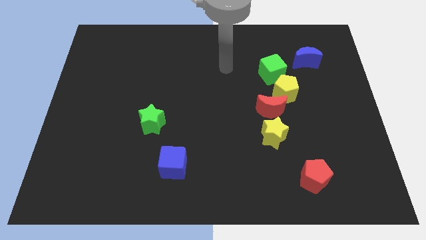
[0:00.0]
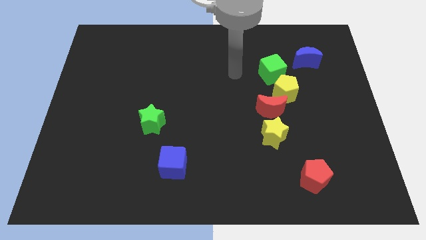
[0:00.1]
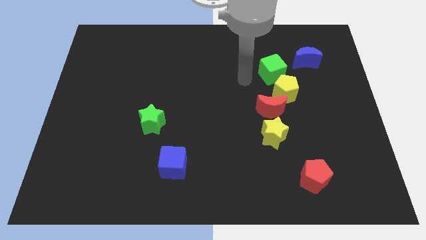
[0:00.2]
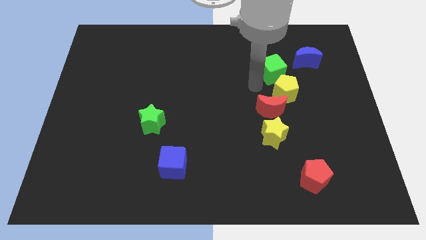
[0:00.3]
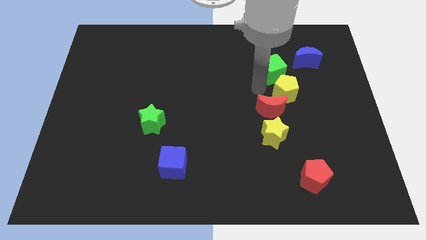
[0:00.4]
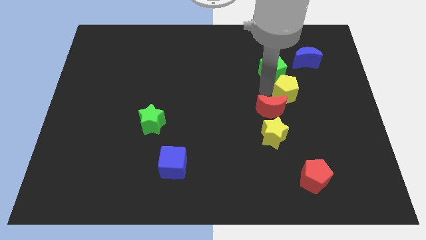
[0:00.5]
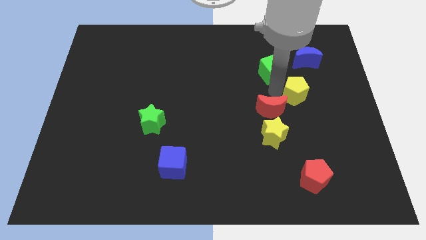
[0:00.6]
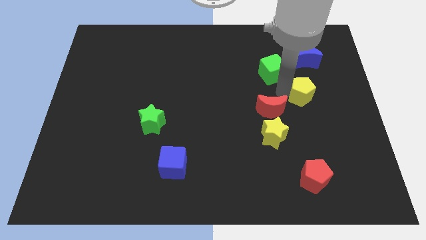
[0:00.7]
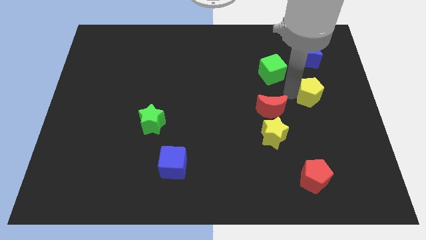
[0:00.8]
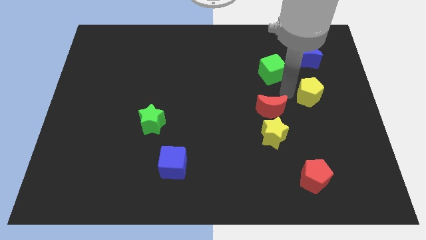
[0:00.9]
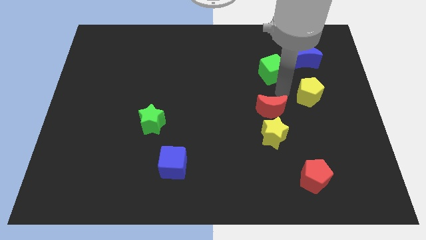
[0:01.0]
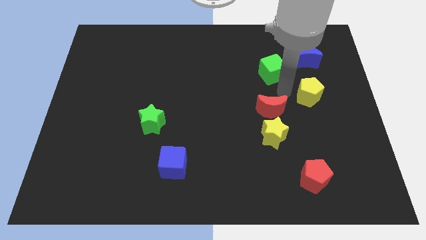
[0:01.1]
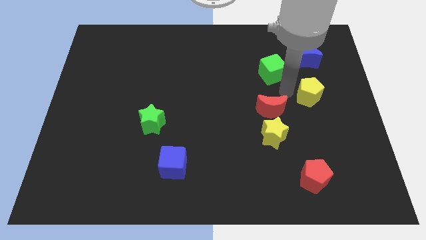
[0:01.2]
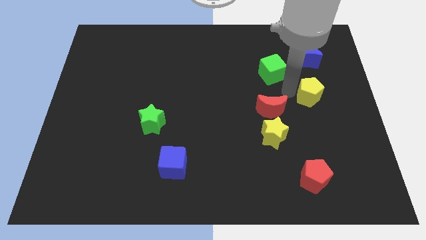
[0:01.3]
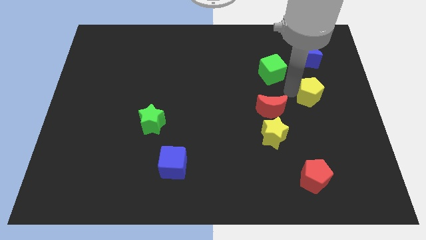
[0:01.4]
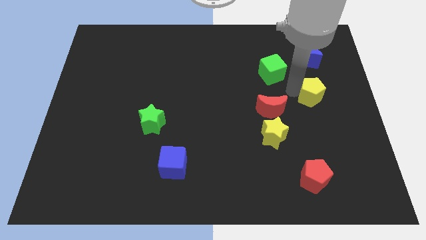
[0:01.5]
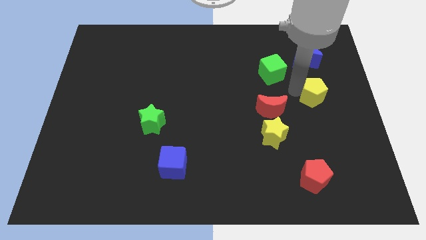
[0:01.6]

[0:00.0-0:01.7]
move the yellow pentagon away from the red moon and green cube

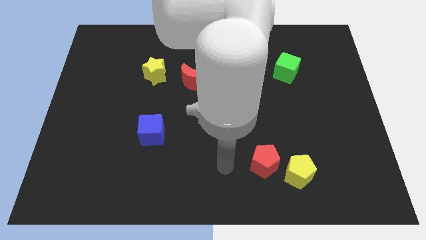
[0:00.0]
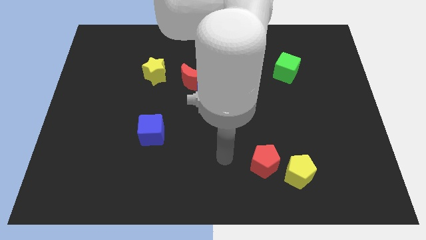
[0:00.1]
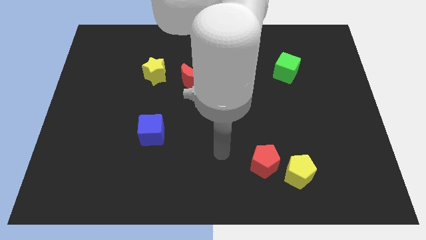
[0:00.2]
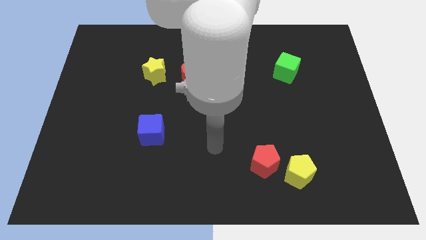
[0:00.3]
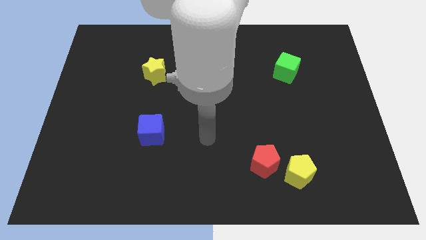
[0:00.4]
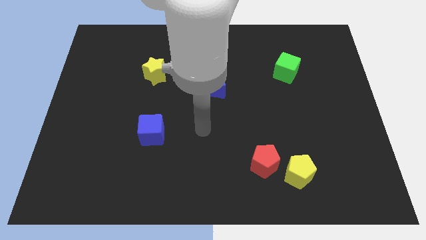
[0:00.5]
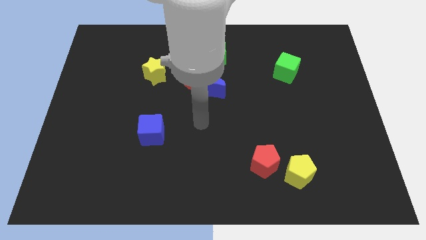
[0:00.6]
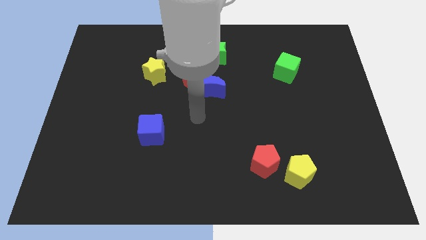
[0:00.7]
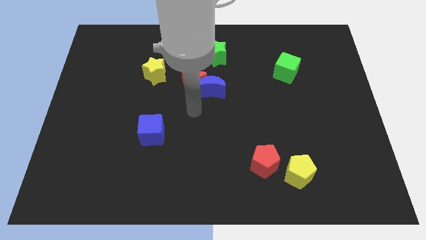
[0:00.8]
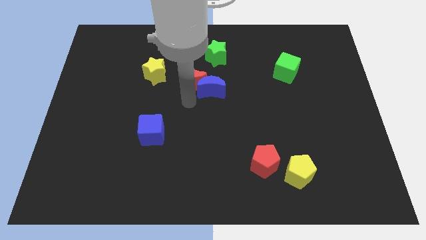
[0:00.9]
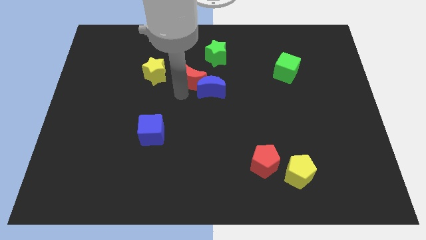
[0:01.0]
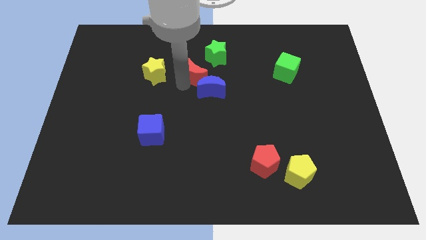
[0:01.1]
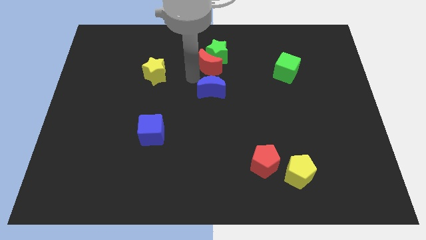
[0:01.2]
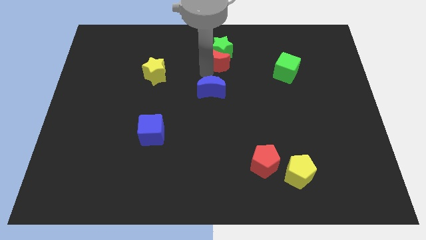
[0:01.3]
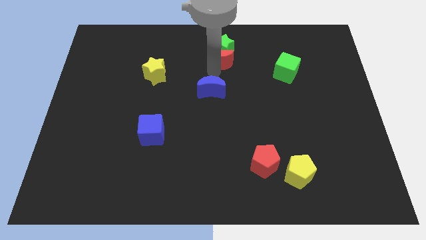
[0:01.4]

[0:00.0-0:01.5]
pull the blue moon apart from the red moon

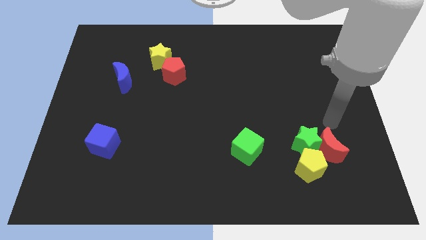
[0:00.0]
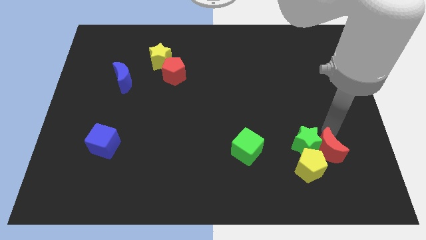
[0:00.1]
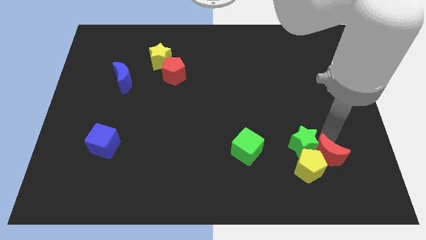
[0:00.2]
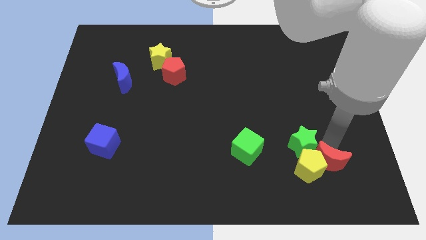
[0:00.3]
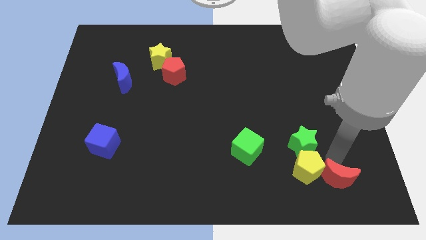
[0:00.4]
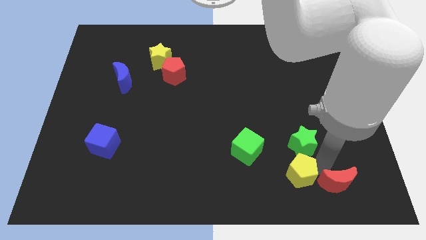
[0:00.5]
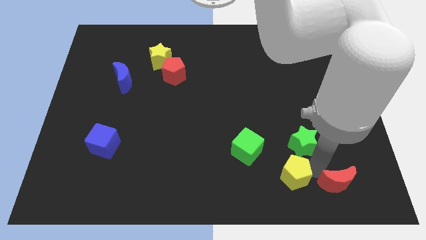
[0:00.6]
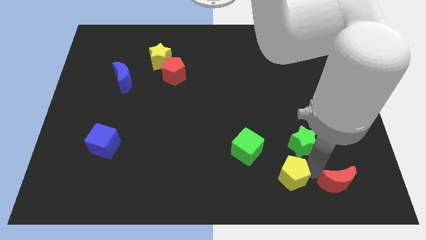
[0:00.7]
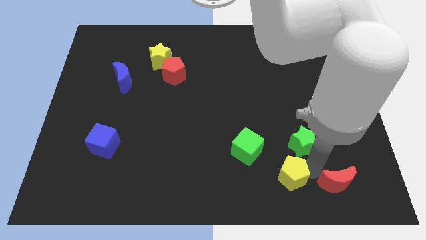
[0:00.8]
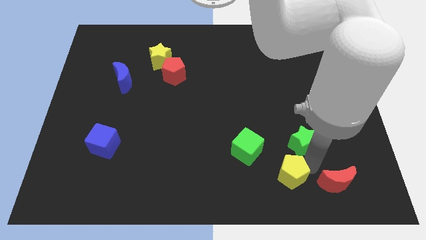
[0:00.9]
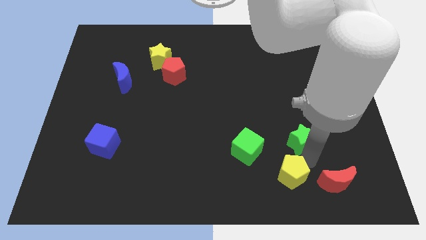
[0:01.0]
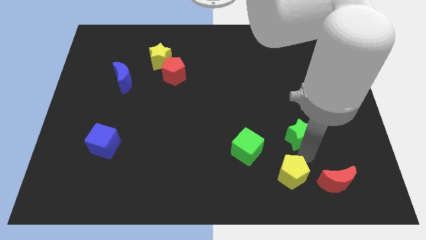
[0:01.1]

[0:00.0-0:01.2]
move the green star away from the red moon and yellow pentagon

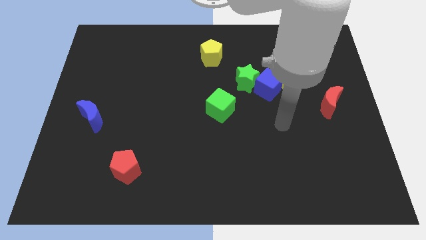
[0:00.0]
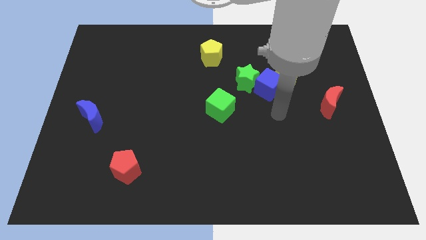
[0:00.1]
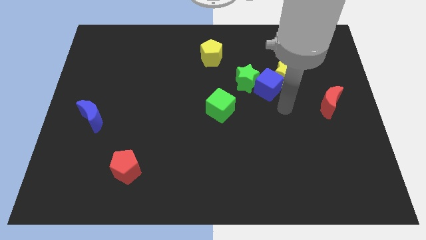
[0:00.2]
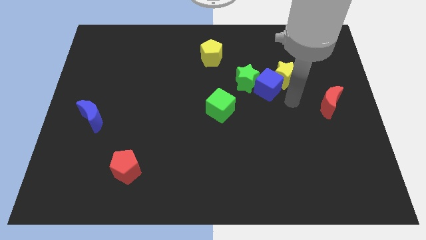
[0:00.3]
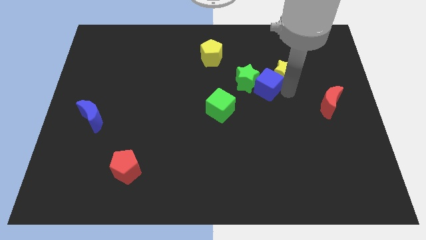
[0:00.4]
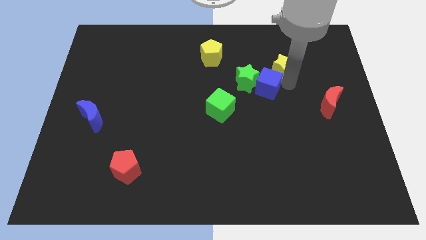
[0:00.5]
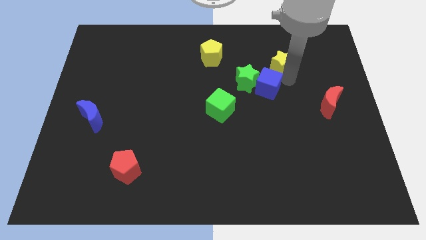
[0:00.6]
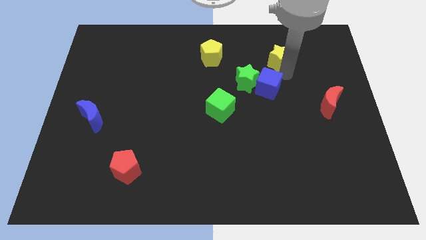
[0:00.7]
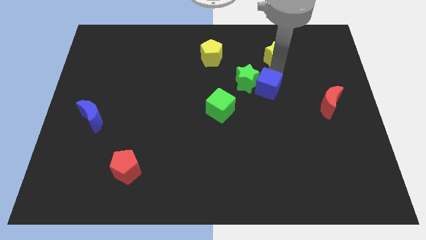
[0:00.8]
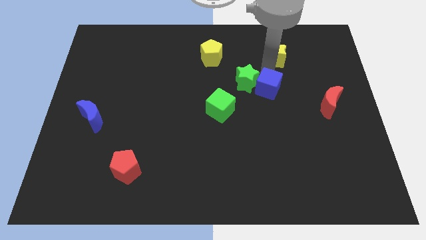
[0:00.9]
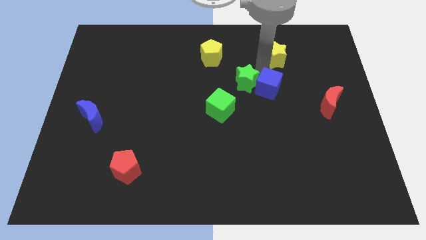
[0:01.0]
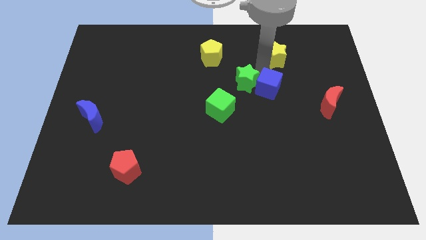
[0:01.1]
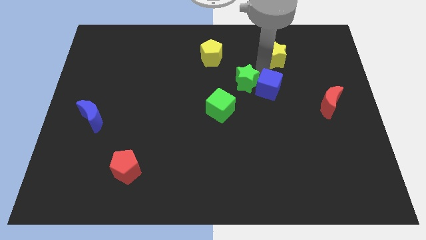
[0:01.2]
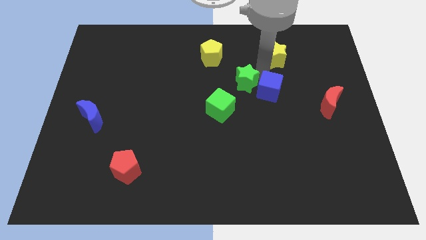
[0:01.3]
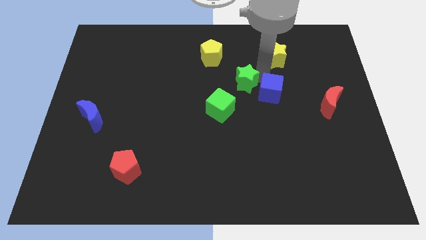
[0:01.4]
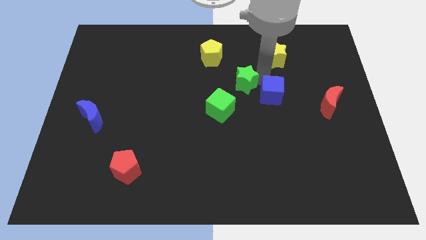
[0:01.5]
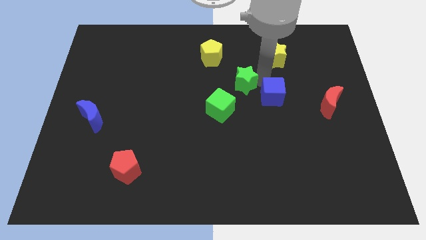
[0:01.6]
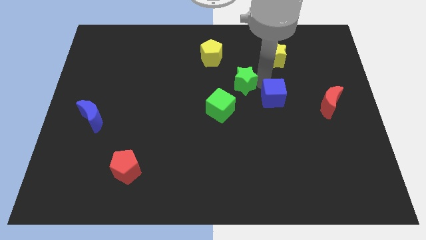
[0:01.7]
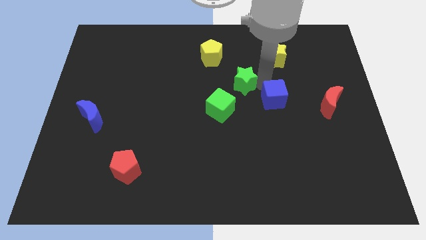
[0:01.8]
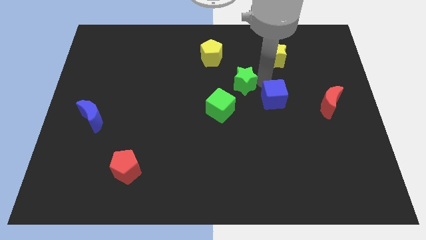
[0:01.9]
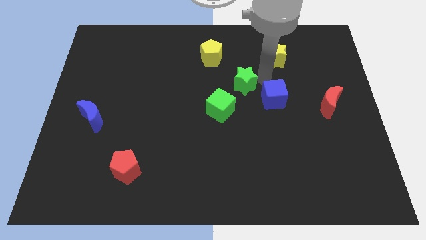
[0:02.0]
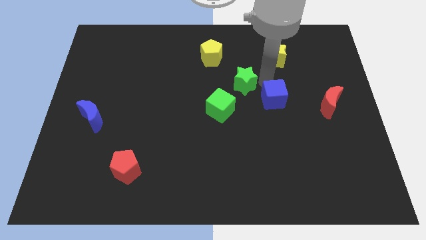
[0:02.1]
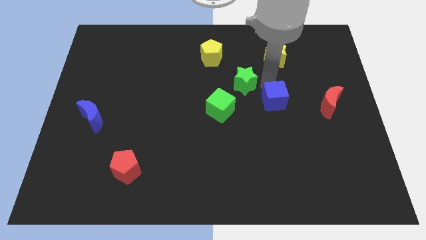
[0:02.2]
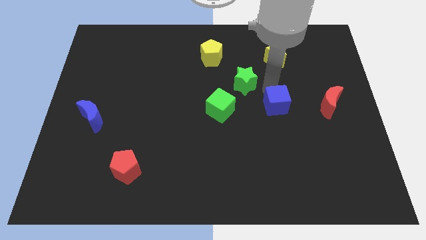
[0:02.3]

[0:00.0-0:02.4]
pull the blue cube apart from the yellow star and green star

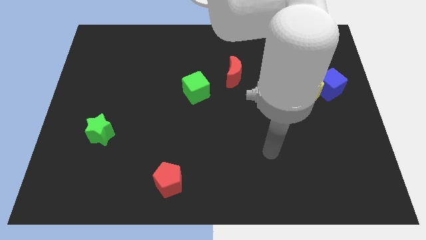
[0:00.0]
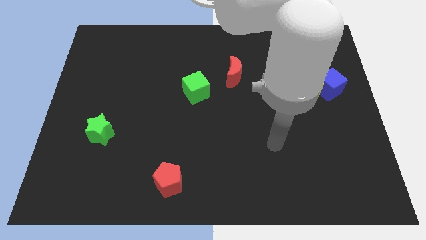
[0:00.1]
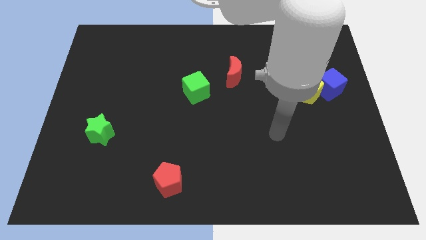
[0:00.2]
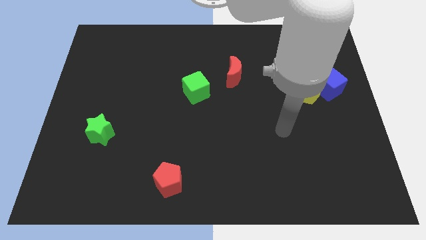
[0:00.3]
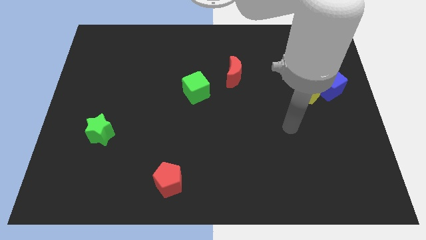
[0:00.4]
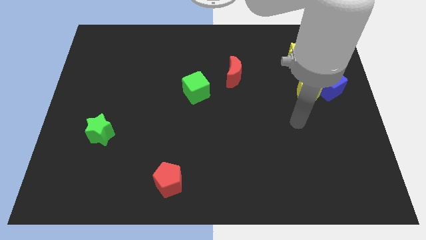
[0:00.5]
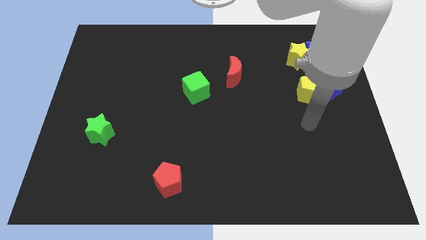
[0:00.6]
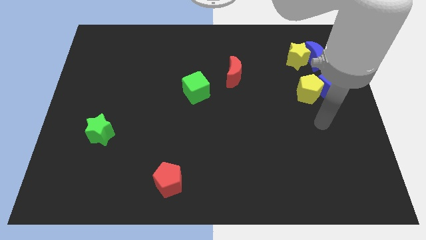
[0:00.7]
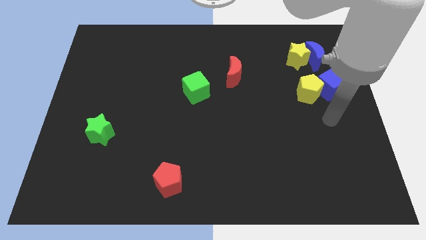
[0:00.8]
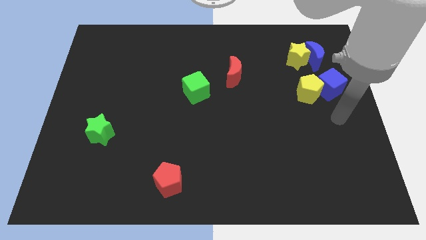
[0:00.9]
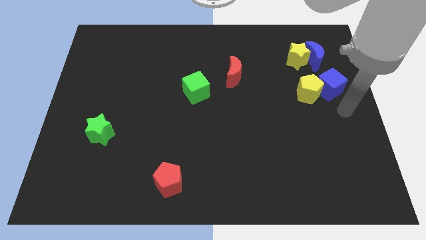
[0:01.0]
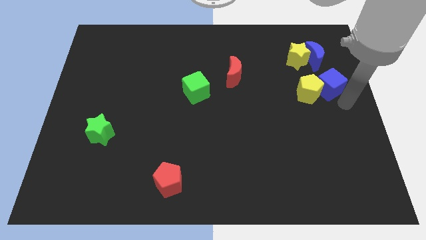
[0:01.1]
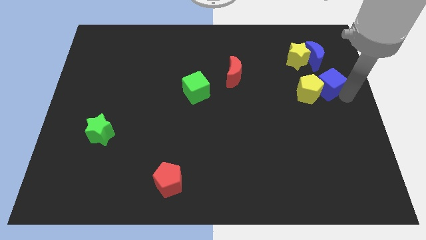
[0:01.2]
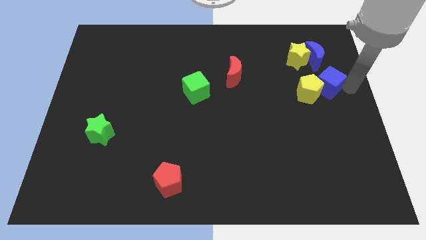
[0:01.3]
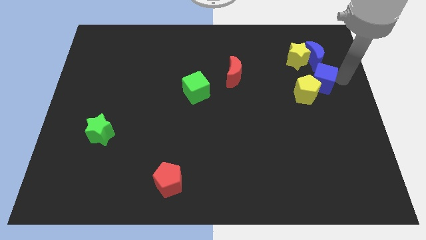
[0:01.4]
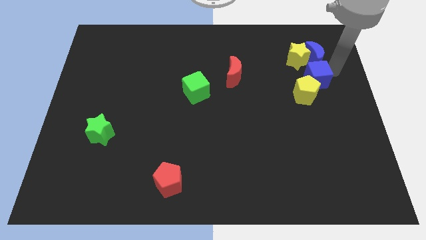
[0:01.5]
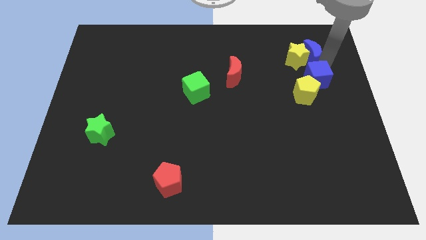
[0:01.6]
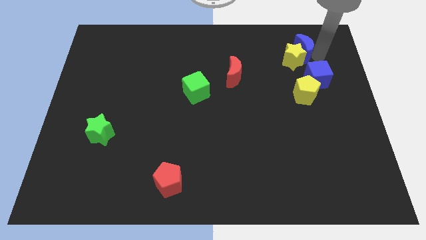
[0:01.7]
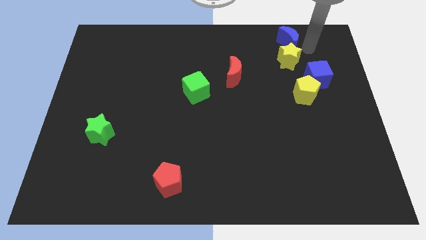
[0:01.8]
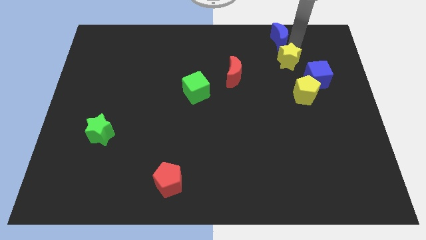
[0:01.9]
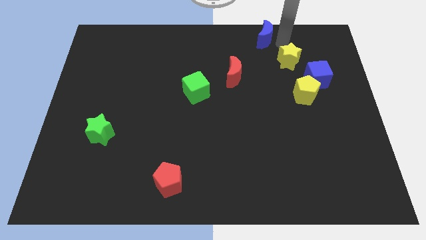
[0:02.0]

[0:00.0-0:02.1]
pull the yellow star apart from the blue moon

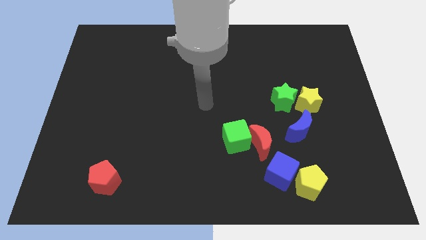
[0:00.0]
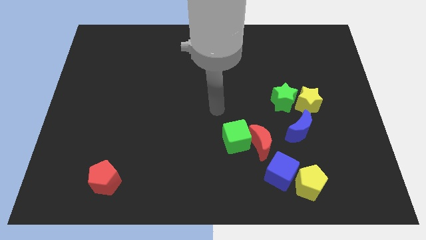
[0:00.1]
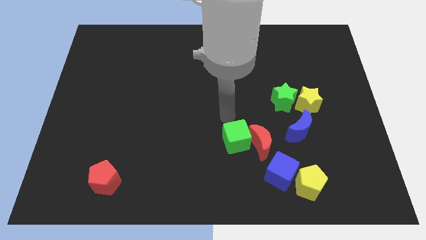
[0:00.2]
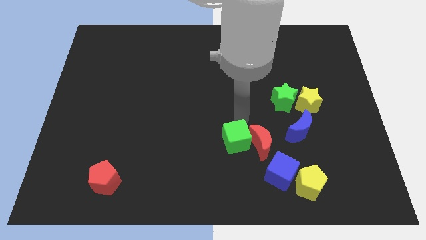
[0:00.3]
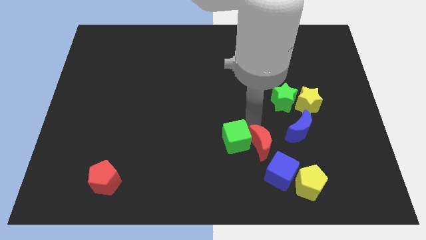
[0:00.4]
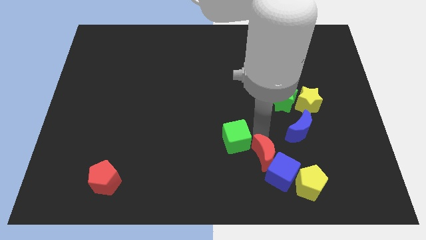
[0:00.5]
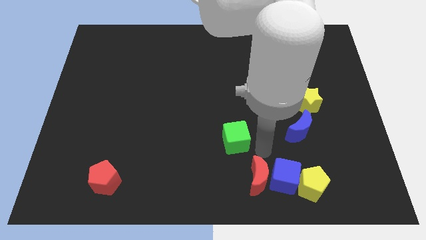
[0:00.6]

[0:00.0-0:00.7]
separate the green cube from the red moon
